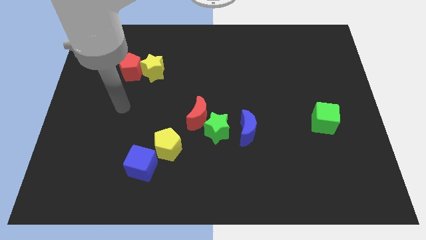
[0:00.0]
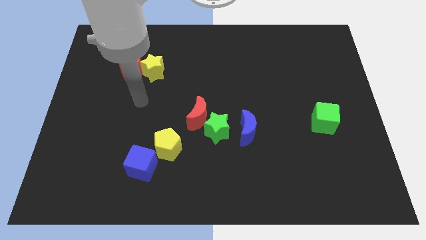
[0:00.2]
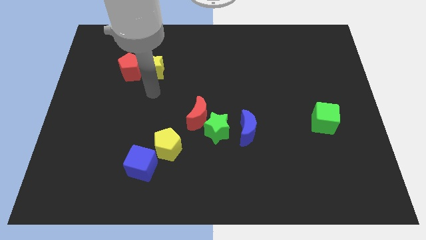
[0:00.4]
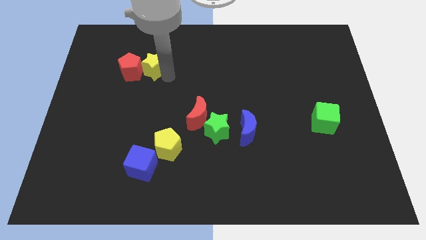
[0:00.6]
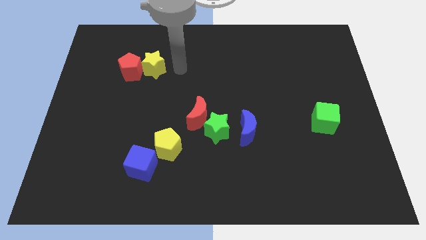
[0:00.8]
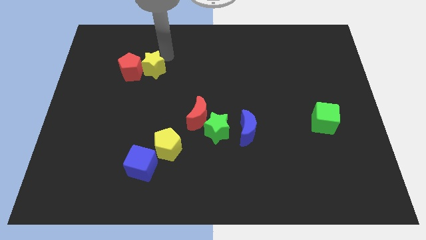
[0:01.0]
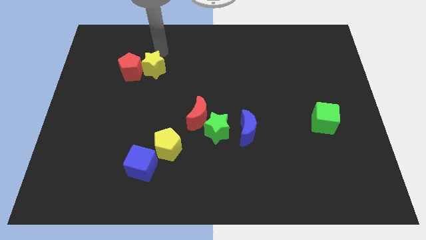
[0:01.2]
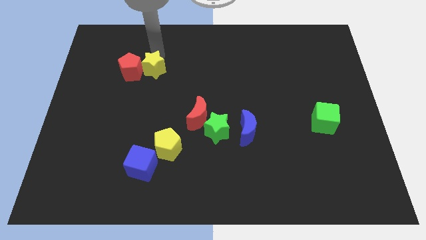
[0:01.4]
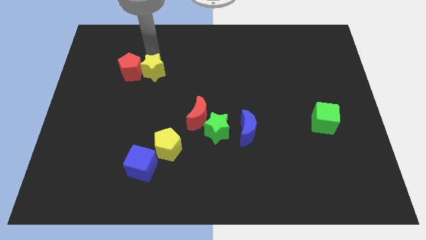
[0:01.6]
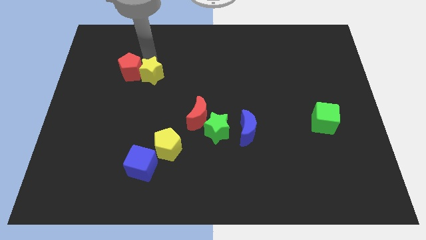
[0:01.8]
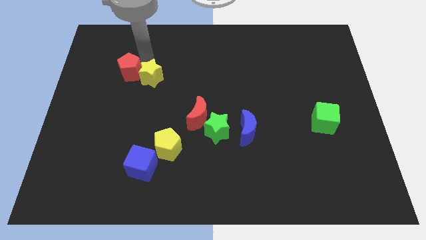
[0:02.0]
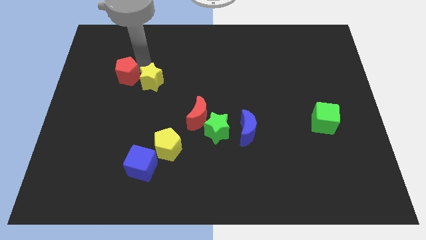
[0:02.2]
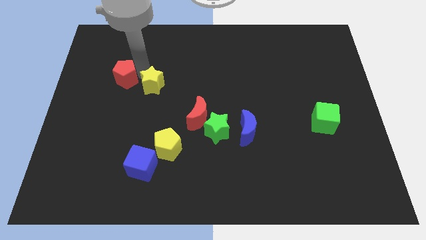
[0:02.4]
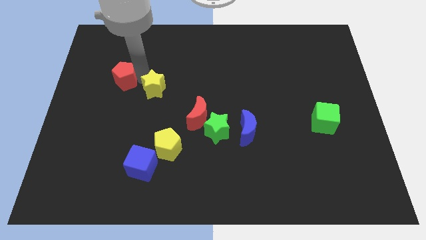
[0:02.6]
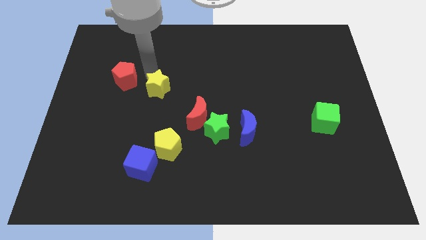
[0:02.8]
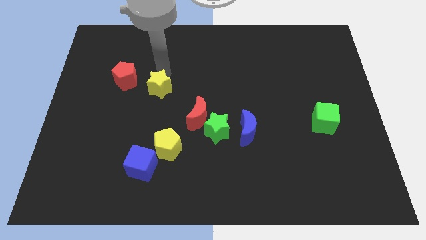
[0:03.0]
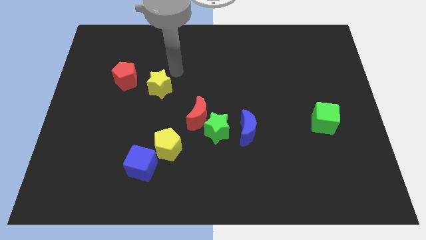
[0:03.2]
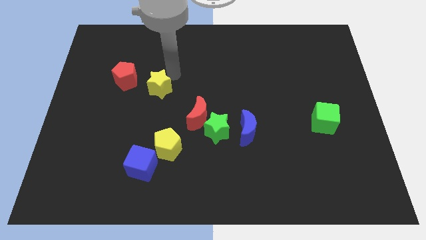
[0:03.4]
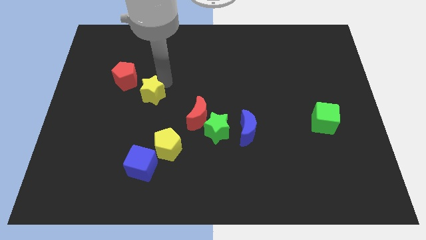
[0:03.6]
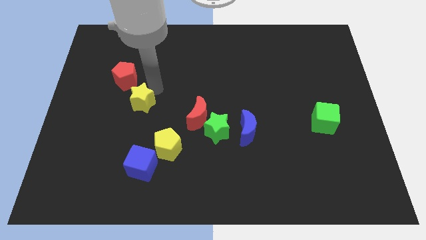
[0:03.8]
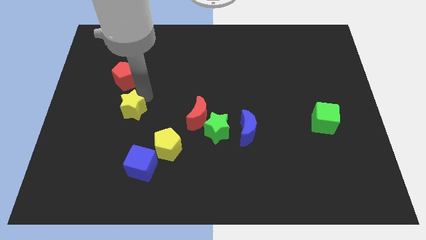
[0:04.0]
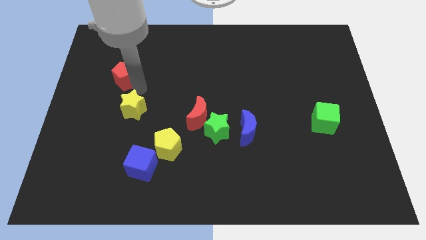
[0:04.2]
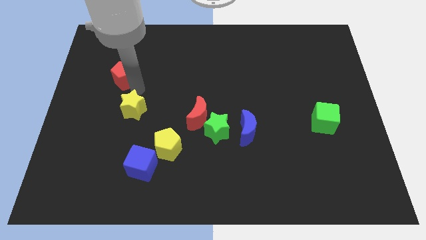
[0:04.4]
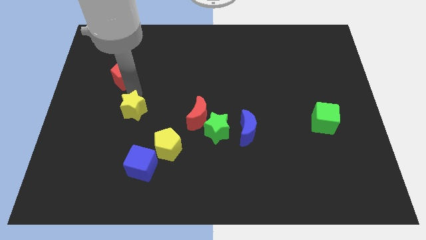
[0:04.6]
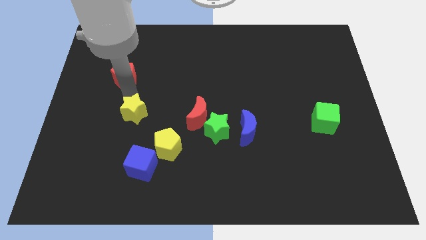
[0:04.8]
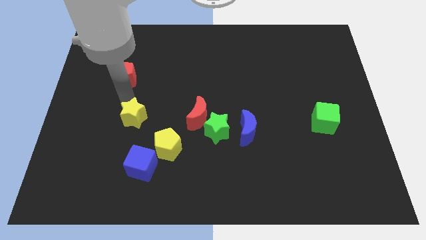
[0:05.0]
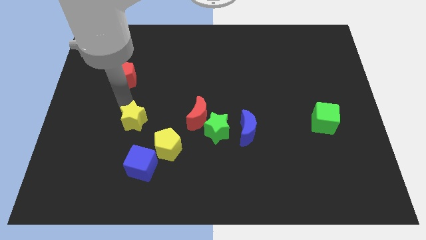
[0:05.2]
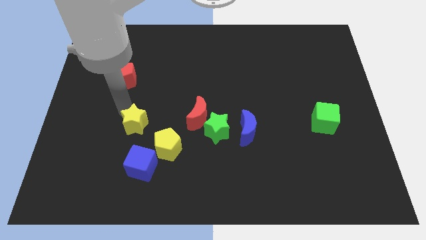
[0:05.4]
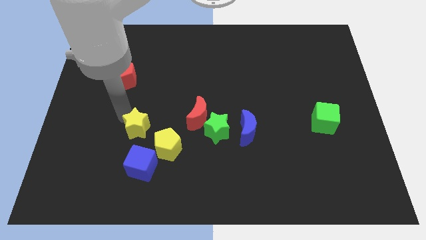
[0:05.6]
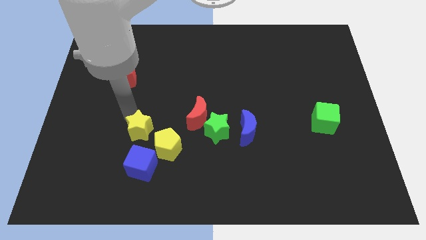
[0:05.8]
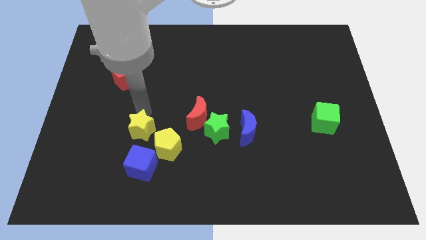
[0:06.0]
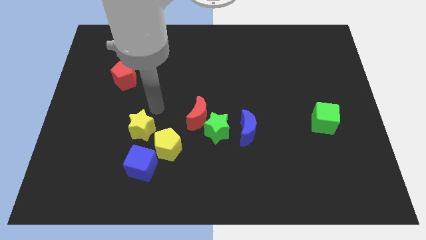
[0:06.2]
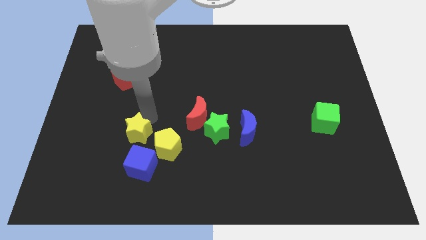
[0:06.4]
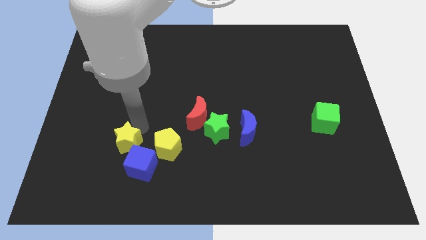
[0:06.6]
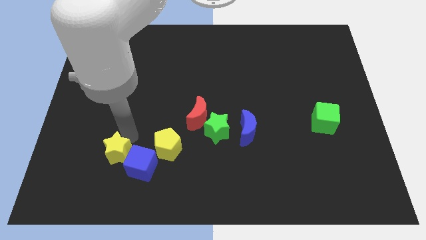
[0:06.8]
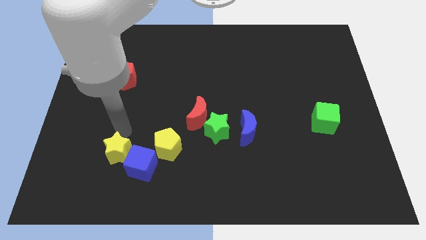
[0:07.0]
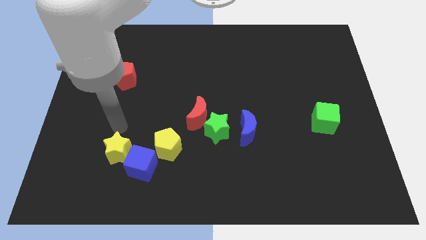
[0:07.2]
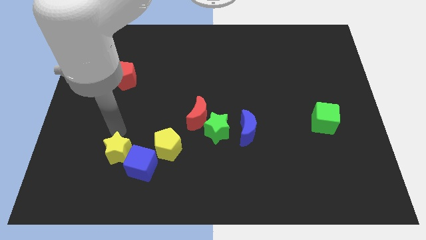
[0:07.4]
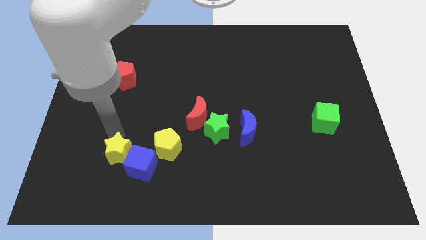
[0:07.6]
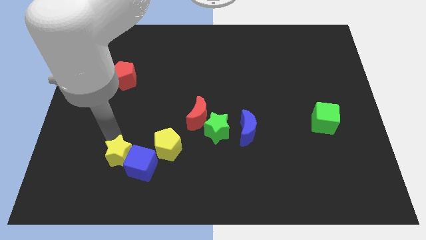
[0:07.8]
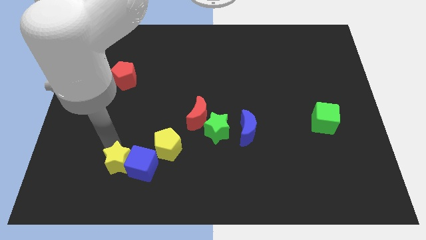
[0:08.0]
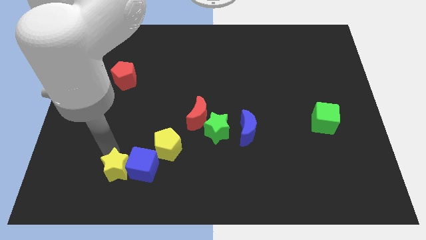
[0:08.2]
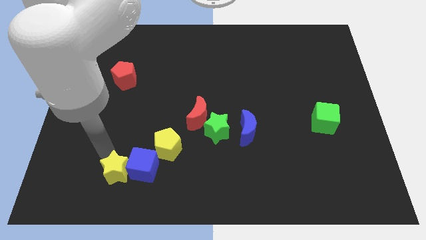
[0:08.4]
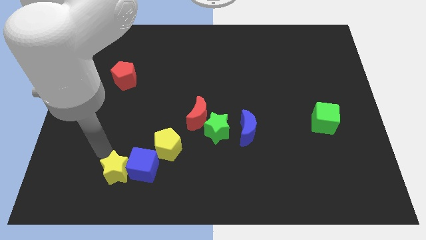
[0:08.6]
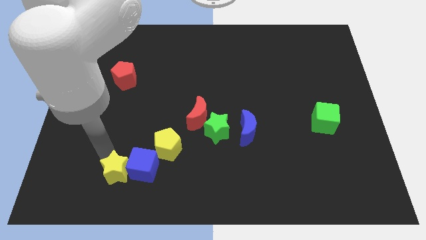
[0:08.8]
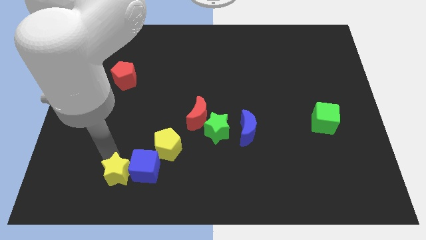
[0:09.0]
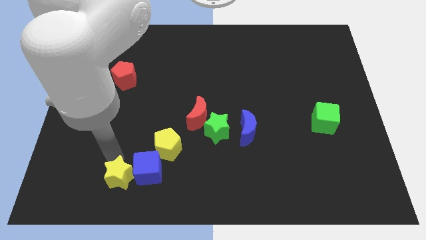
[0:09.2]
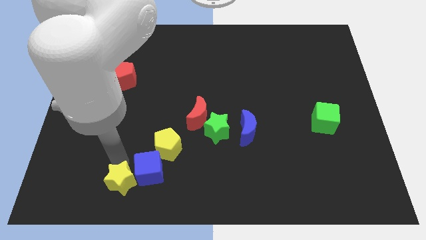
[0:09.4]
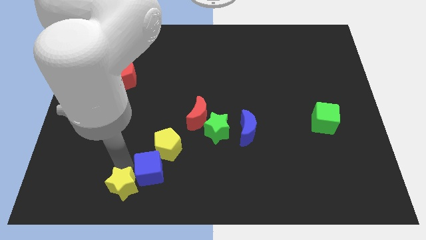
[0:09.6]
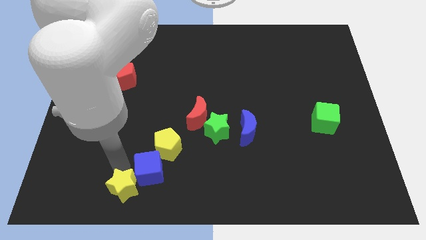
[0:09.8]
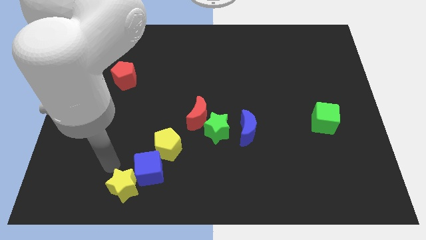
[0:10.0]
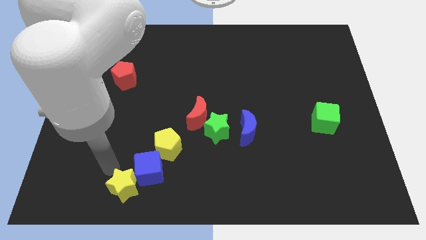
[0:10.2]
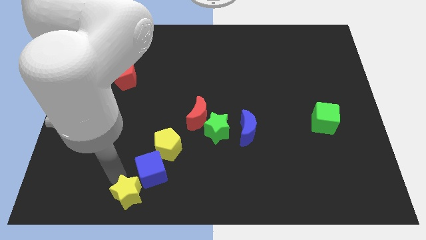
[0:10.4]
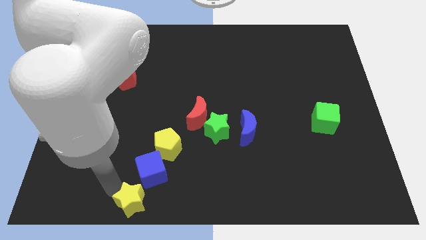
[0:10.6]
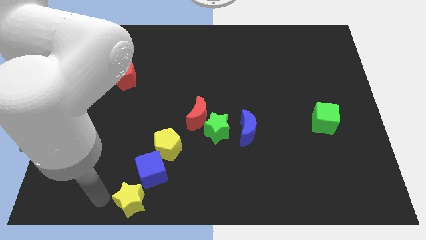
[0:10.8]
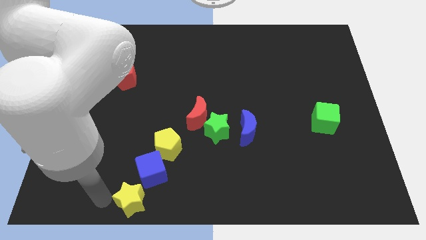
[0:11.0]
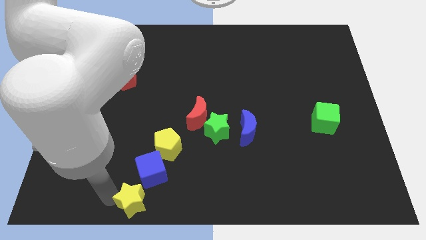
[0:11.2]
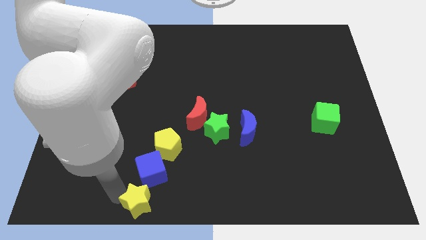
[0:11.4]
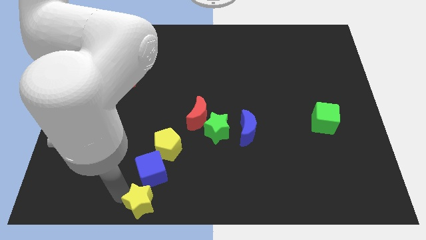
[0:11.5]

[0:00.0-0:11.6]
push the yellow star to the bottom
